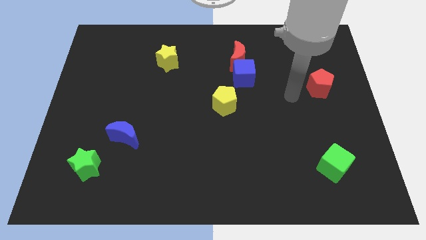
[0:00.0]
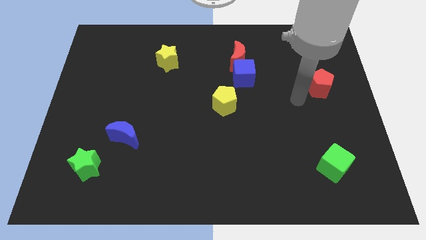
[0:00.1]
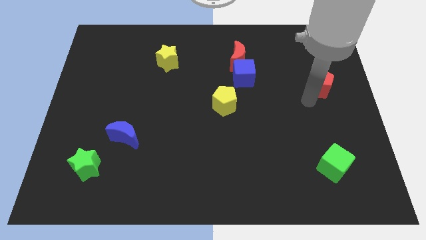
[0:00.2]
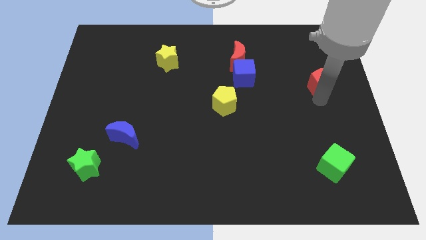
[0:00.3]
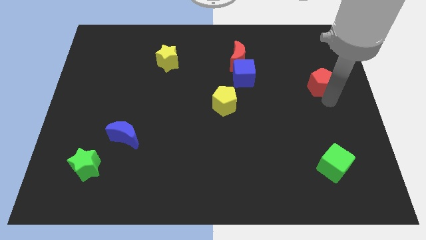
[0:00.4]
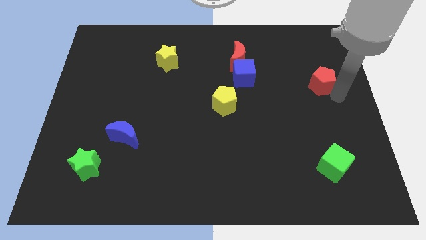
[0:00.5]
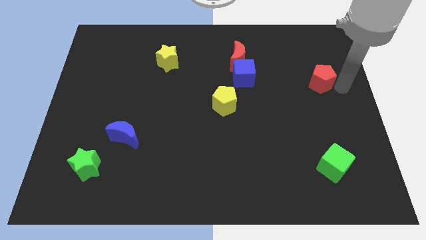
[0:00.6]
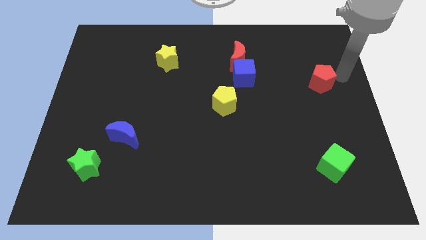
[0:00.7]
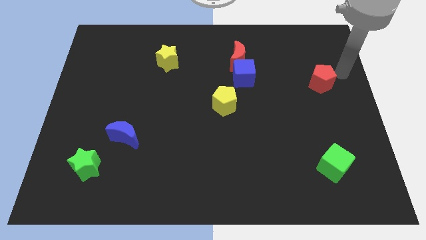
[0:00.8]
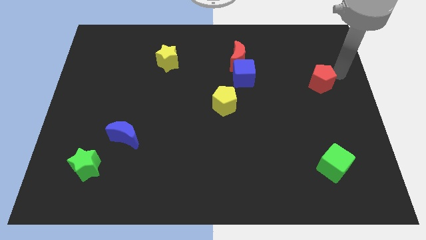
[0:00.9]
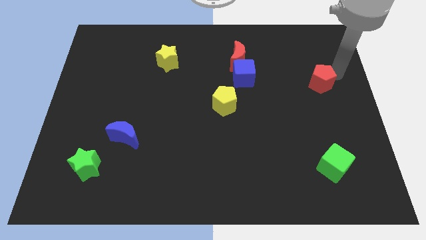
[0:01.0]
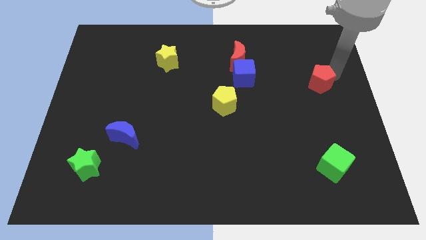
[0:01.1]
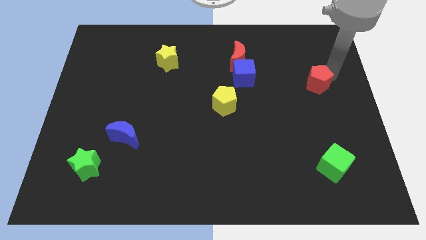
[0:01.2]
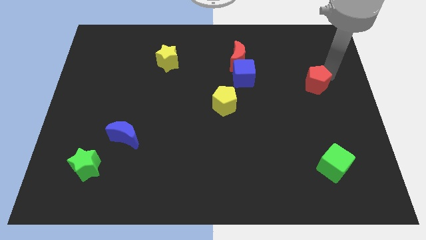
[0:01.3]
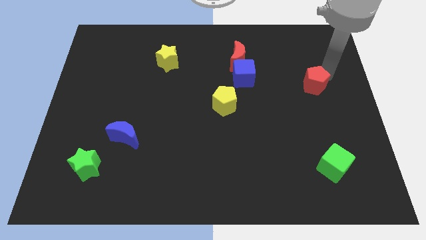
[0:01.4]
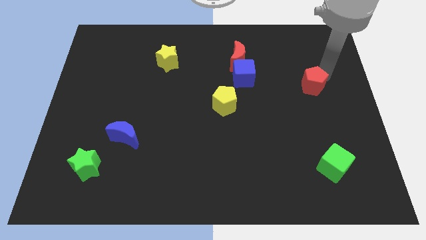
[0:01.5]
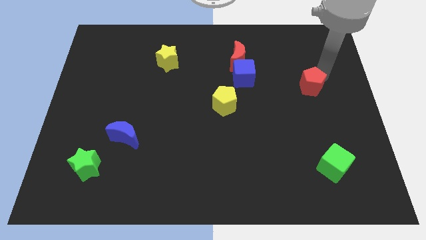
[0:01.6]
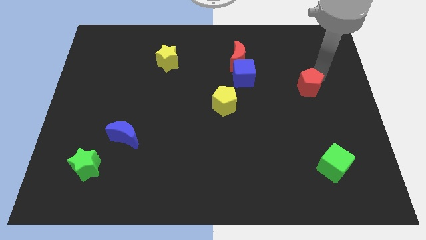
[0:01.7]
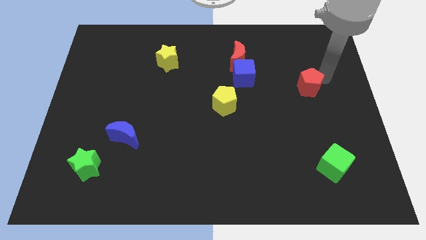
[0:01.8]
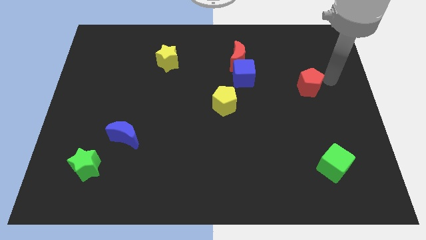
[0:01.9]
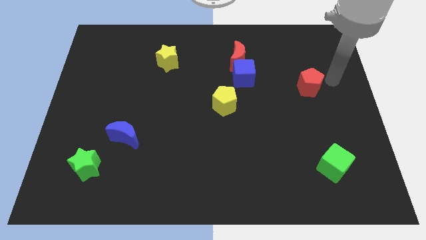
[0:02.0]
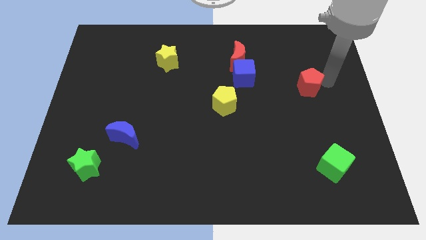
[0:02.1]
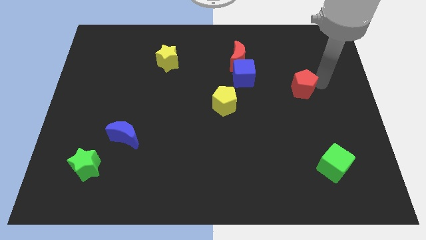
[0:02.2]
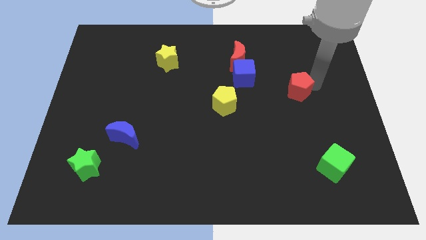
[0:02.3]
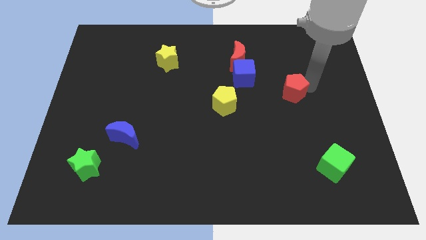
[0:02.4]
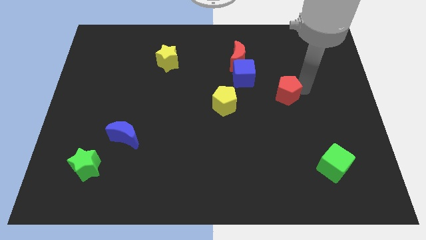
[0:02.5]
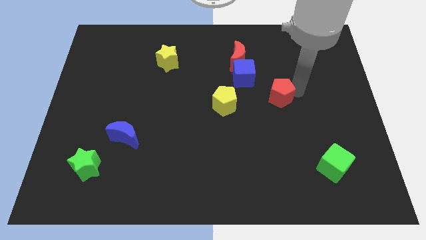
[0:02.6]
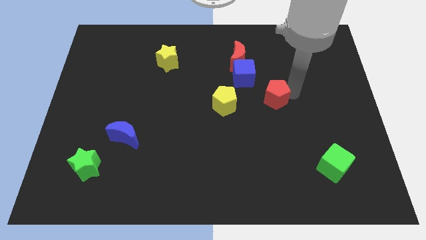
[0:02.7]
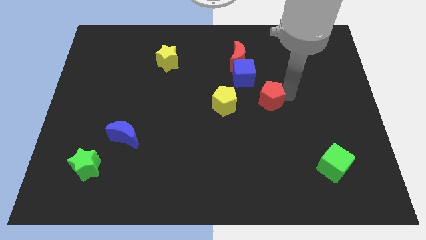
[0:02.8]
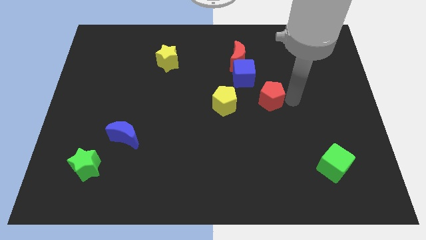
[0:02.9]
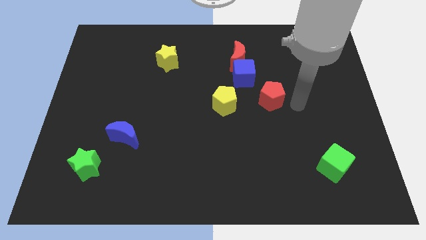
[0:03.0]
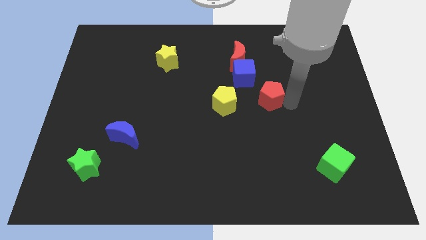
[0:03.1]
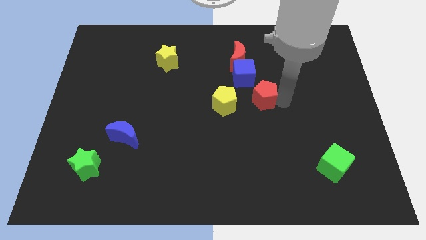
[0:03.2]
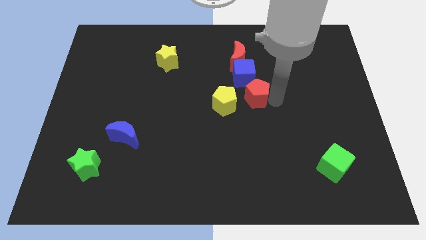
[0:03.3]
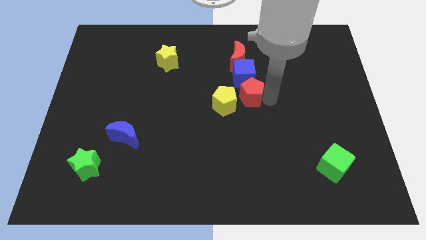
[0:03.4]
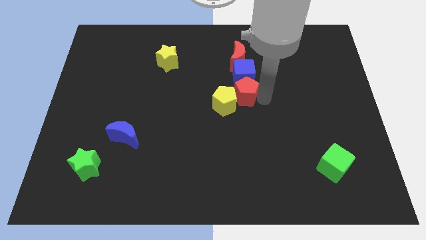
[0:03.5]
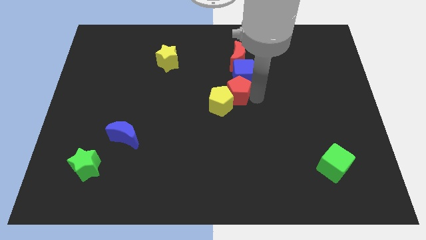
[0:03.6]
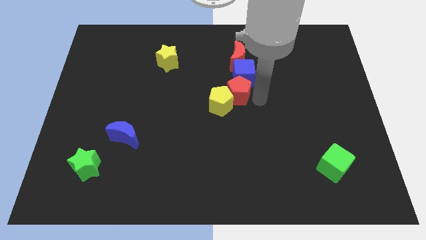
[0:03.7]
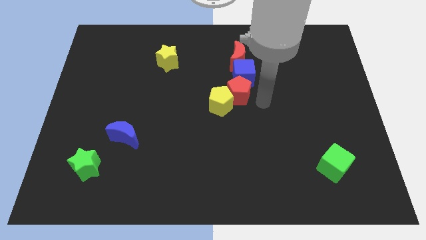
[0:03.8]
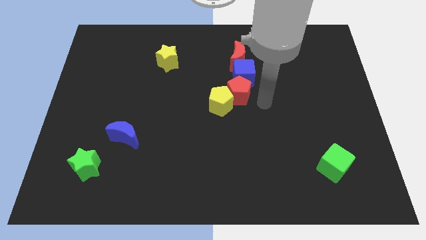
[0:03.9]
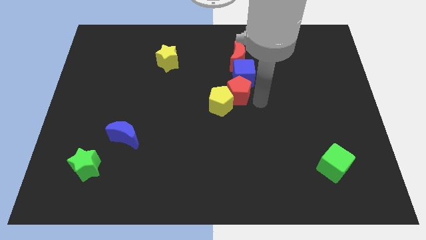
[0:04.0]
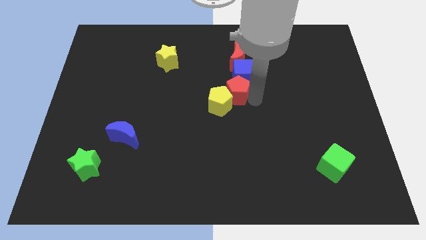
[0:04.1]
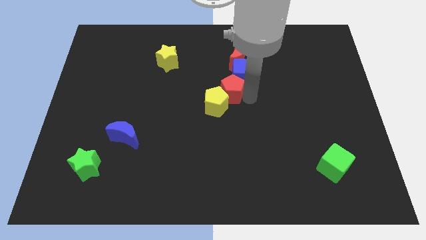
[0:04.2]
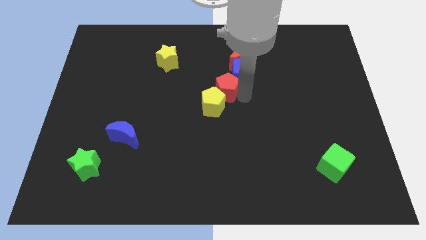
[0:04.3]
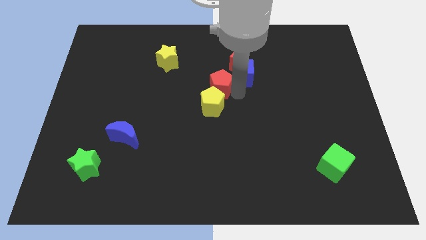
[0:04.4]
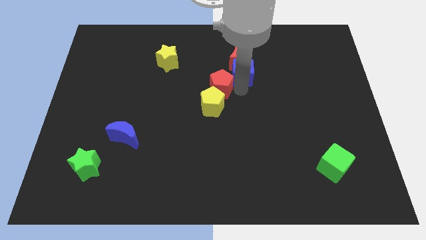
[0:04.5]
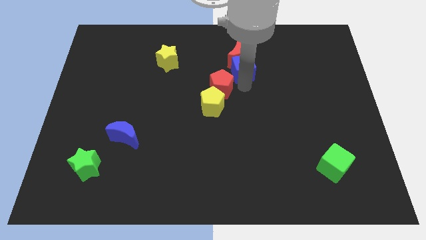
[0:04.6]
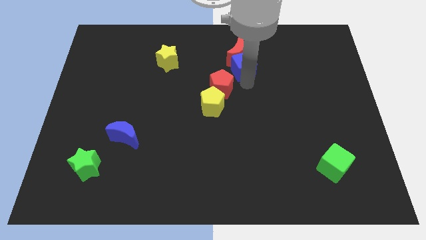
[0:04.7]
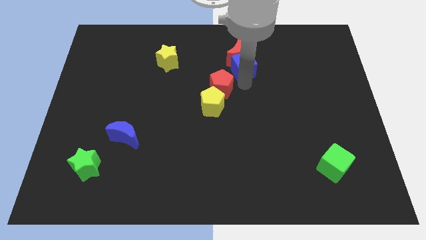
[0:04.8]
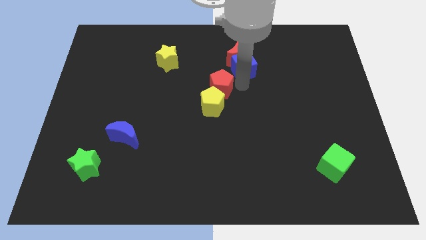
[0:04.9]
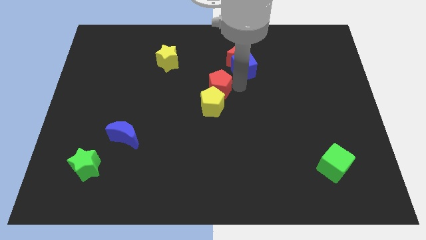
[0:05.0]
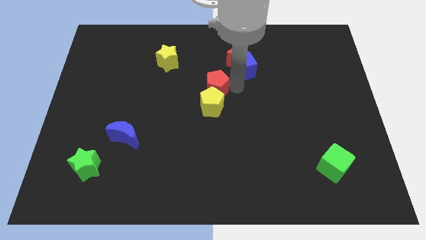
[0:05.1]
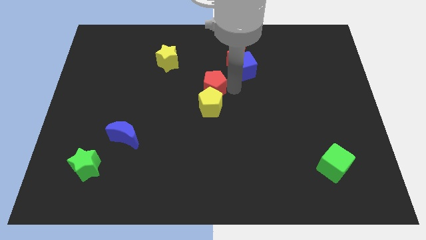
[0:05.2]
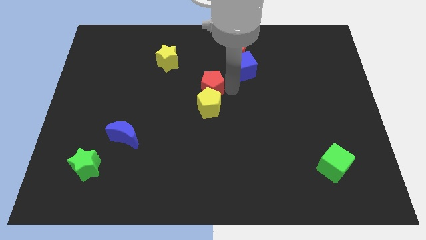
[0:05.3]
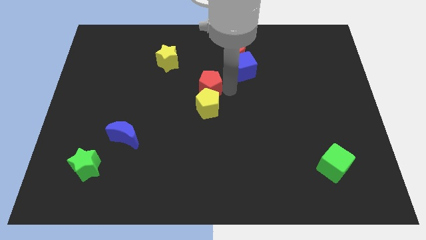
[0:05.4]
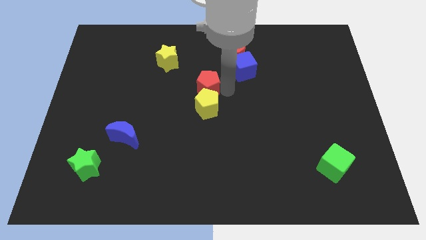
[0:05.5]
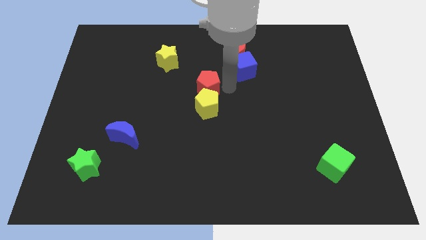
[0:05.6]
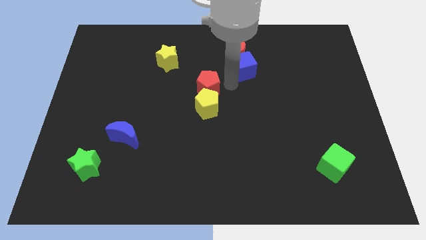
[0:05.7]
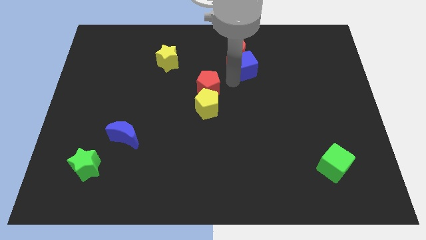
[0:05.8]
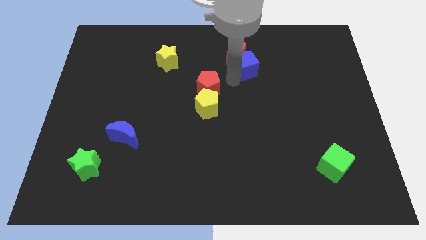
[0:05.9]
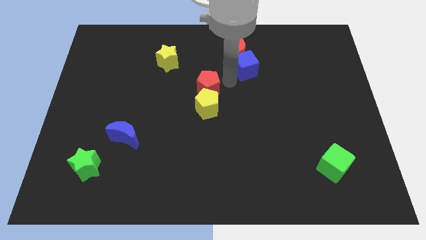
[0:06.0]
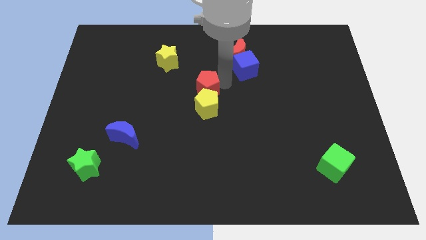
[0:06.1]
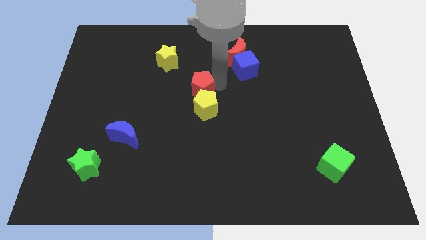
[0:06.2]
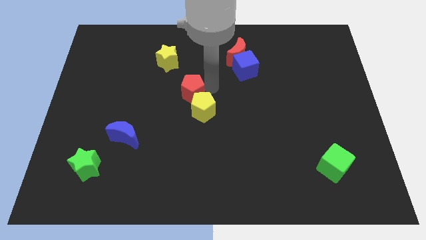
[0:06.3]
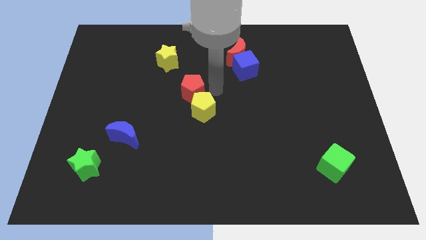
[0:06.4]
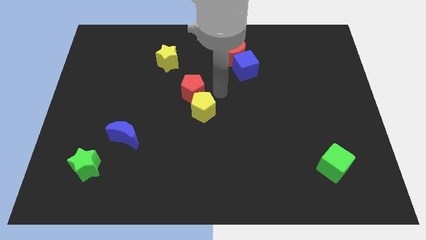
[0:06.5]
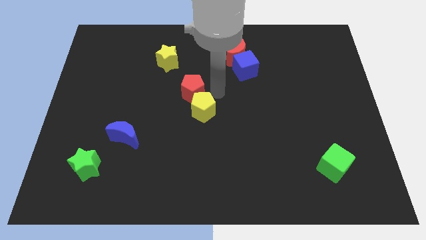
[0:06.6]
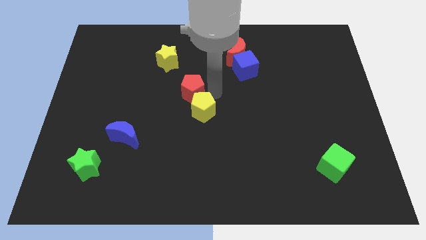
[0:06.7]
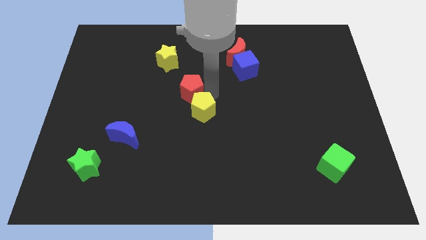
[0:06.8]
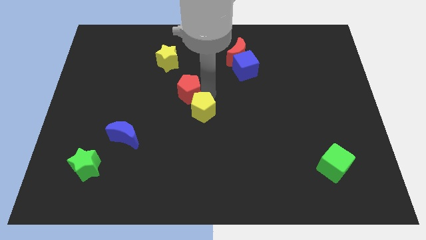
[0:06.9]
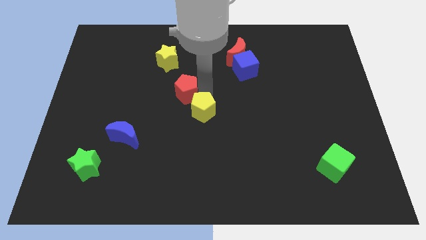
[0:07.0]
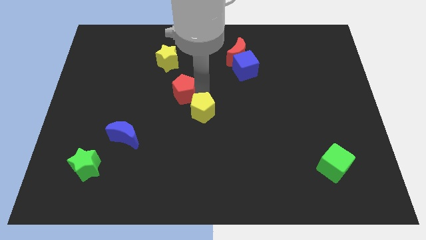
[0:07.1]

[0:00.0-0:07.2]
move the red pentagon to the bottom of the yellow star
